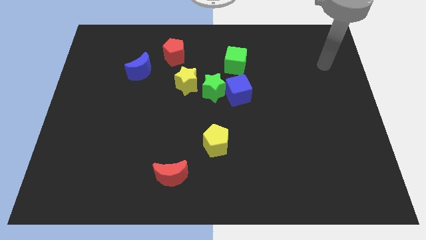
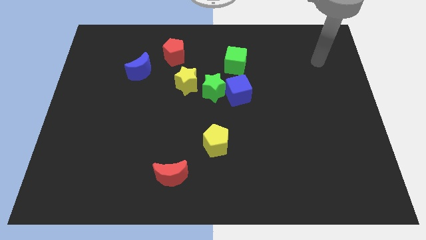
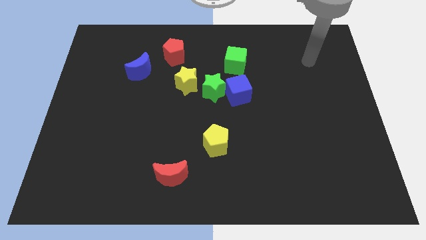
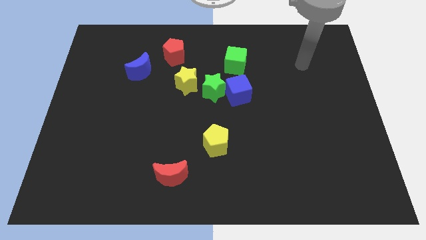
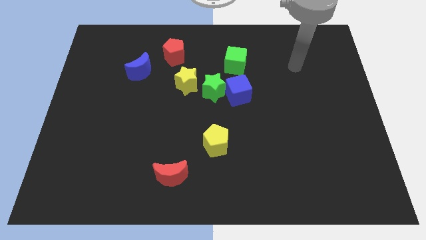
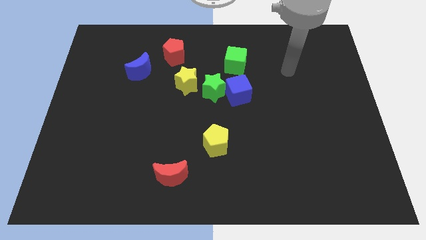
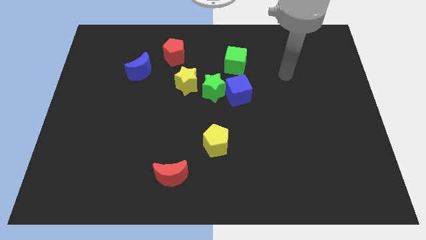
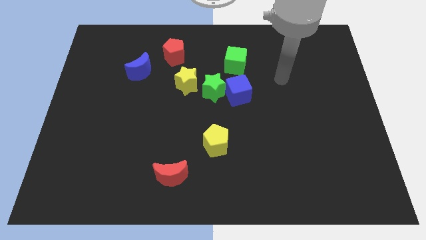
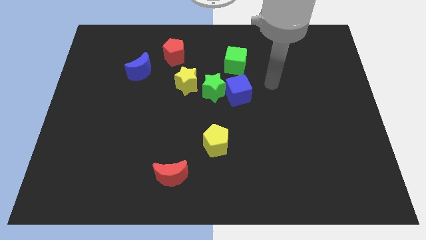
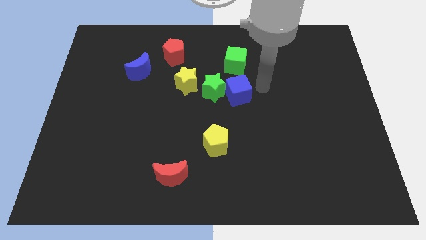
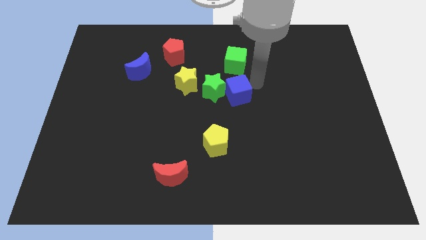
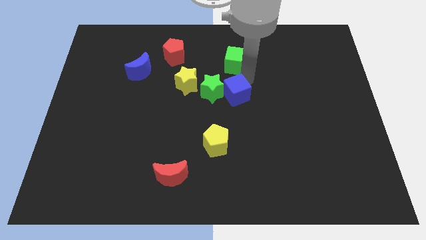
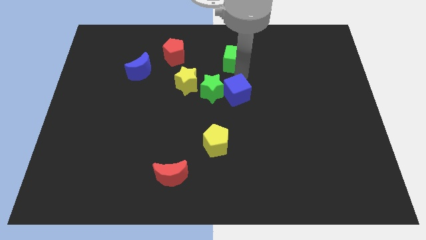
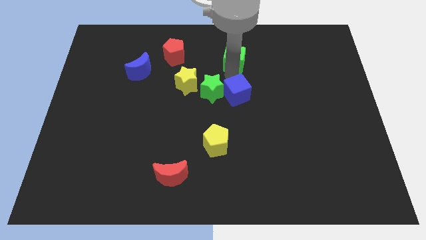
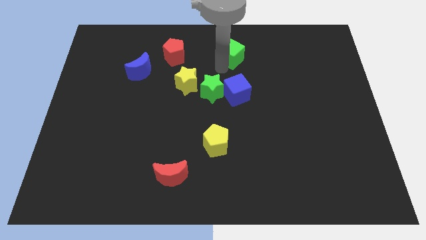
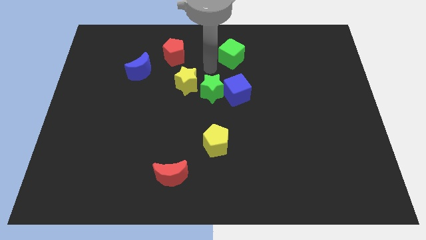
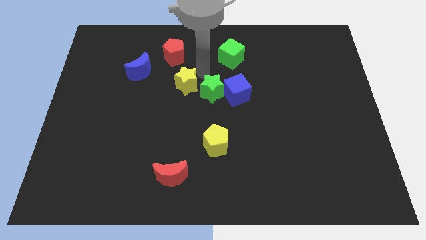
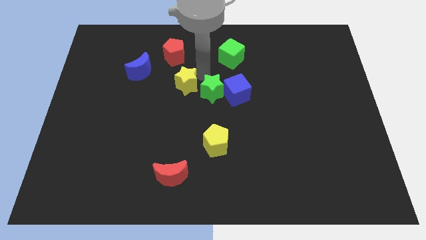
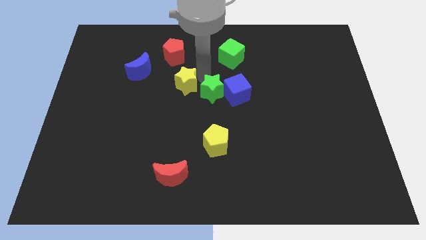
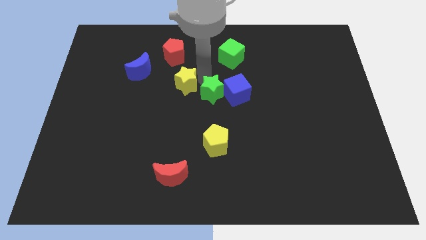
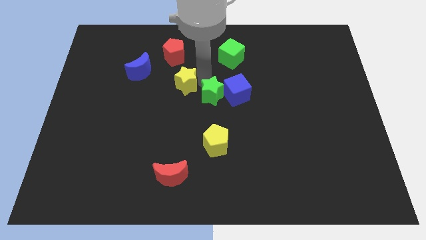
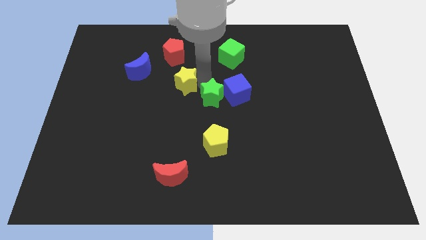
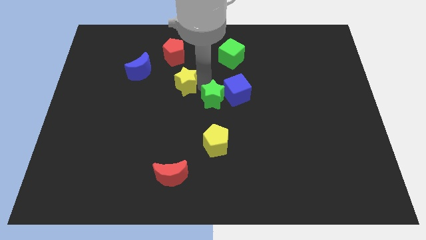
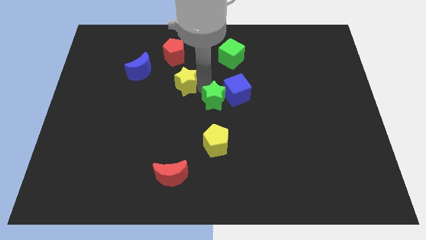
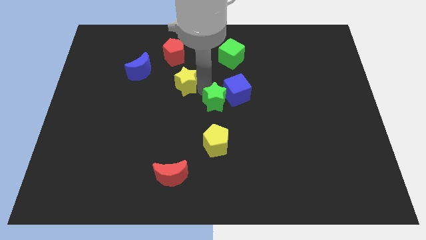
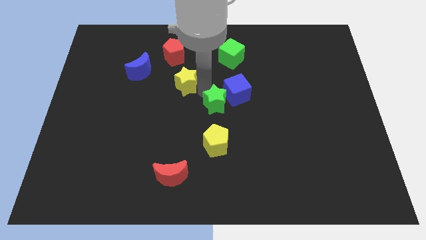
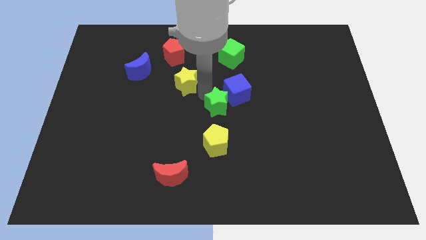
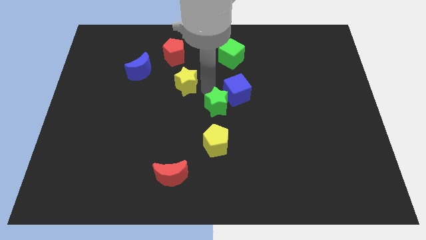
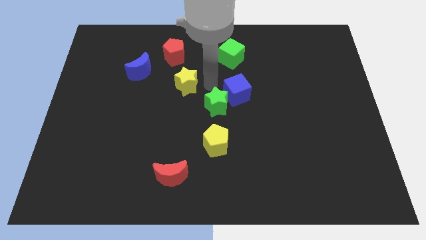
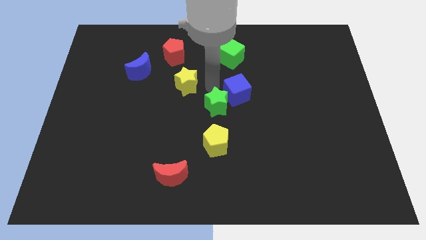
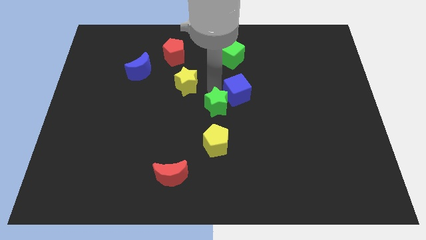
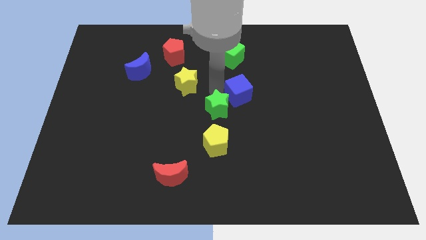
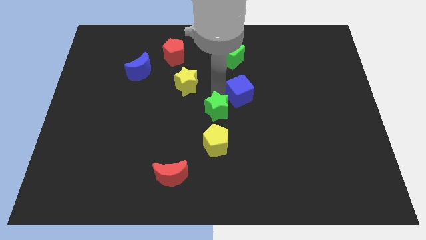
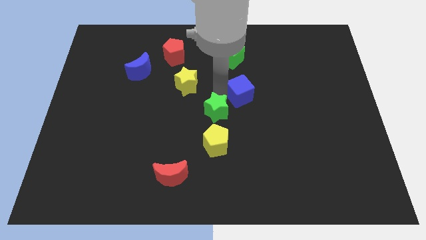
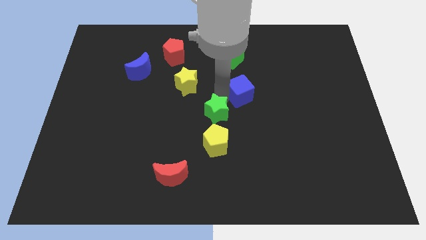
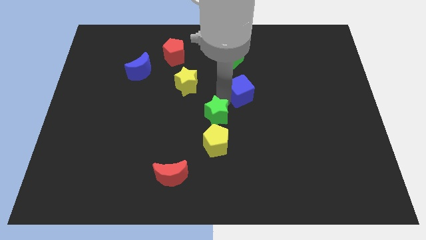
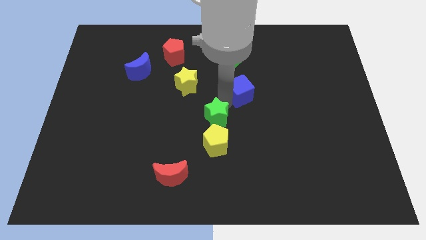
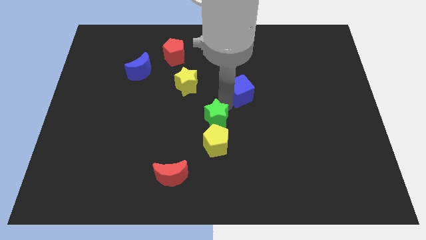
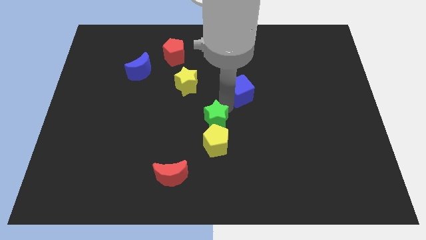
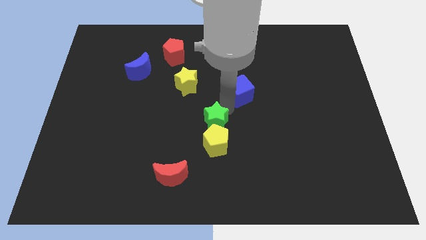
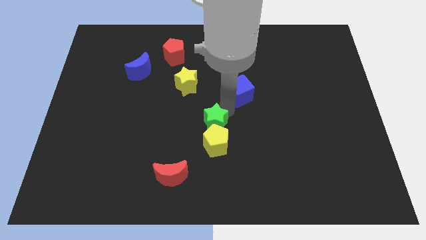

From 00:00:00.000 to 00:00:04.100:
move the green star away from the blue cube and yellow star

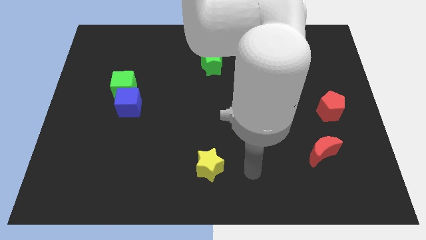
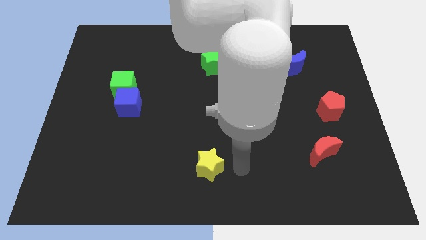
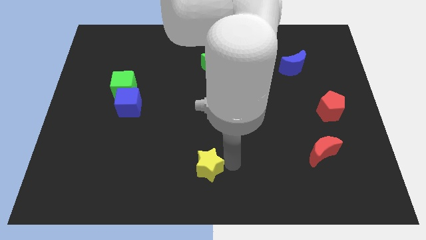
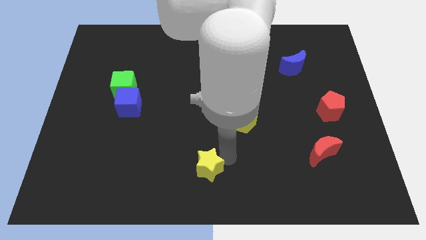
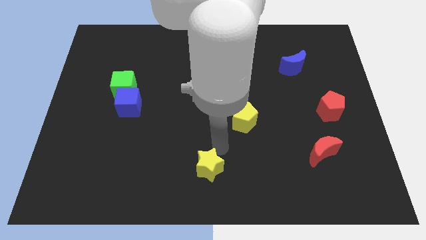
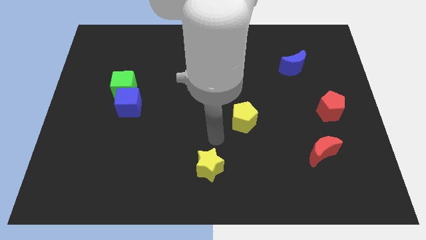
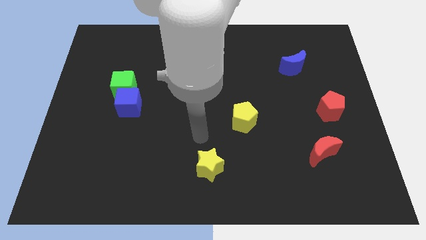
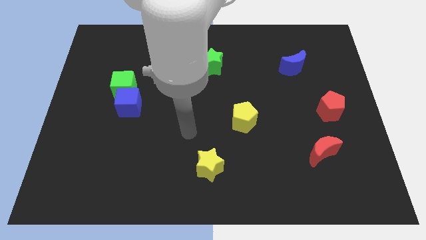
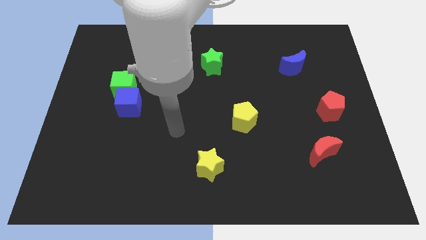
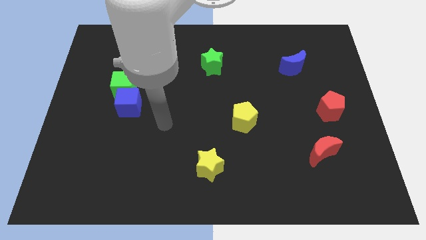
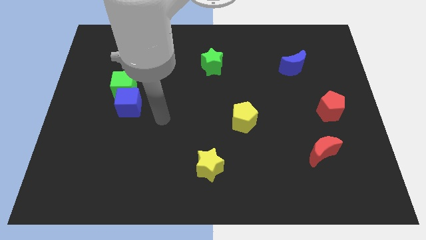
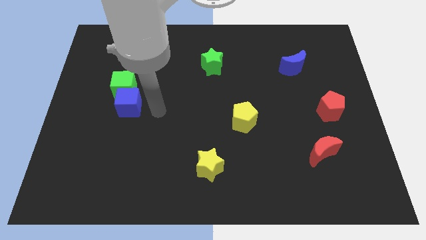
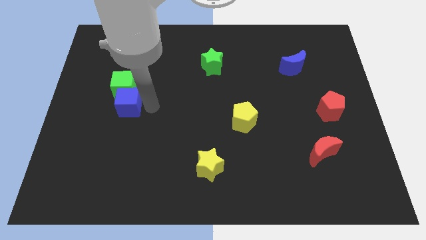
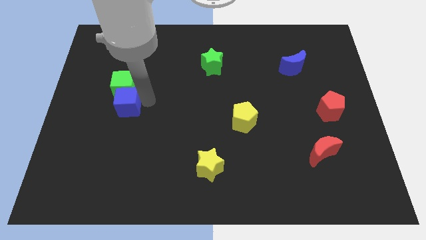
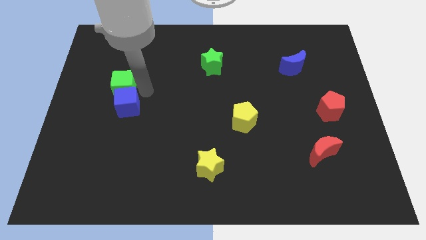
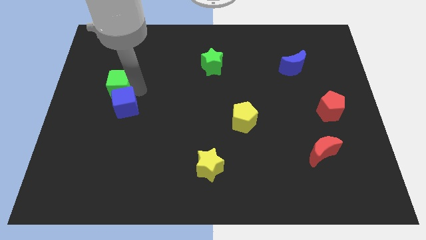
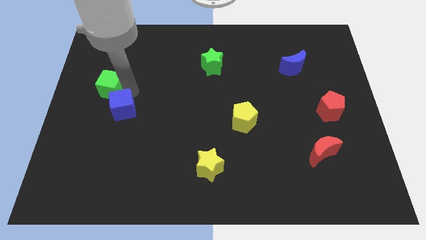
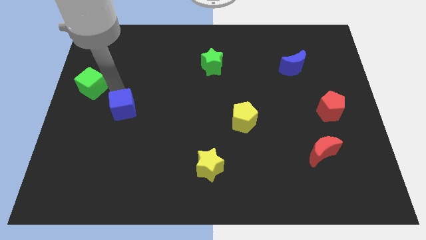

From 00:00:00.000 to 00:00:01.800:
separate the blue cube from the green cube

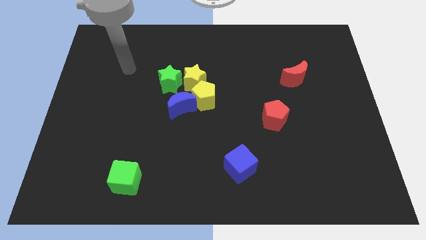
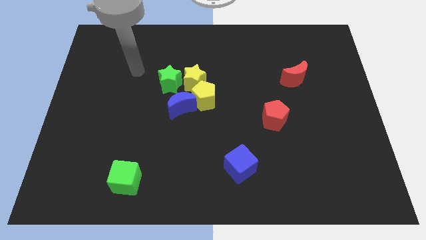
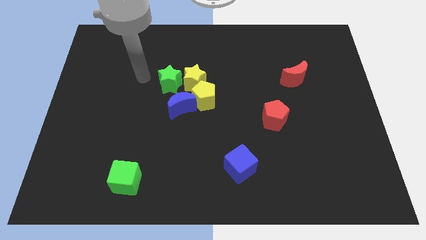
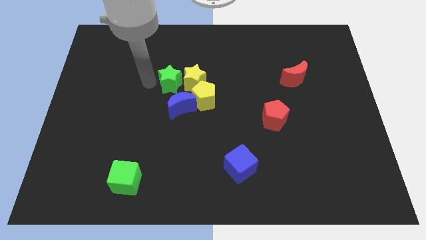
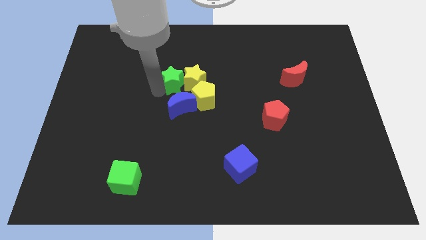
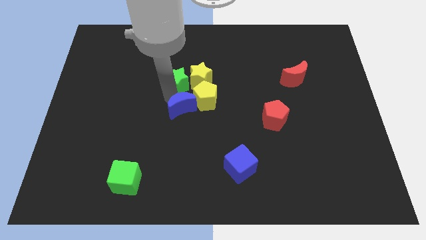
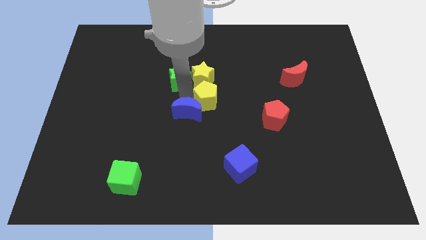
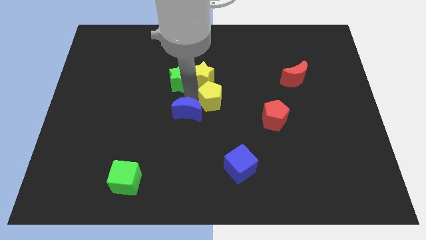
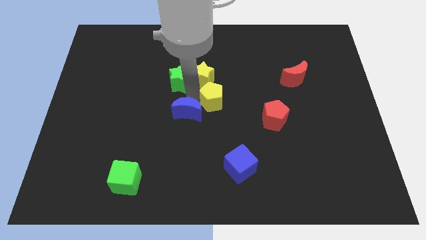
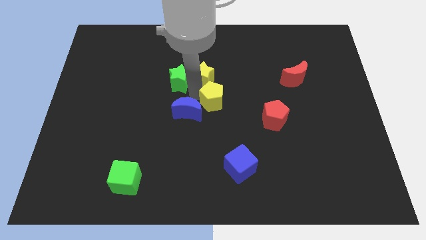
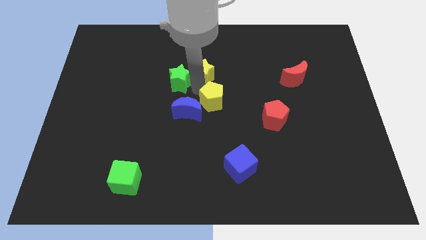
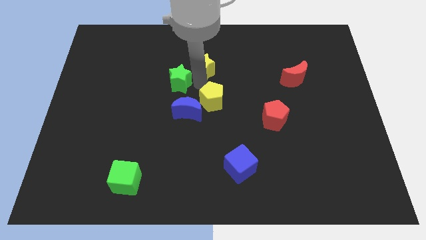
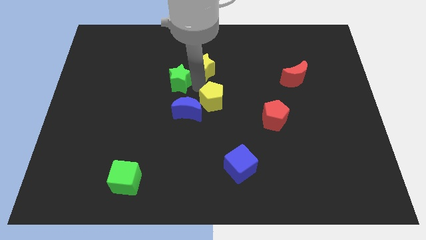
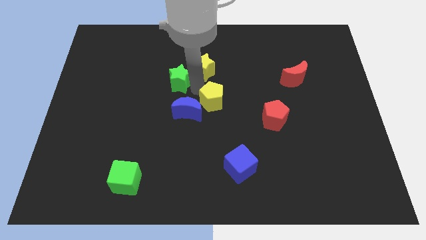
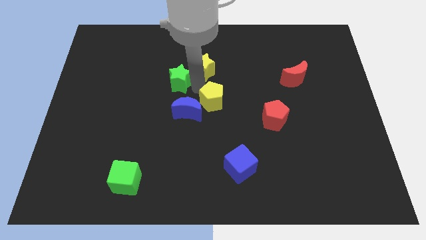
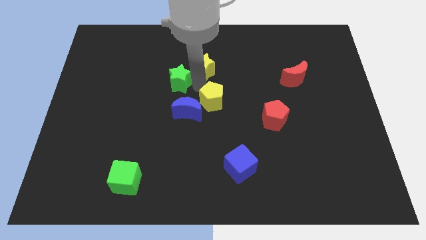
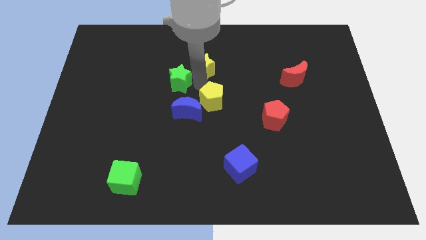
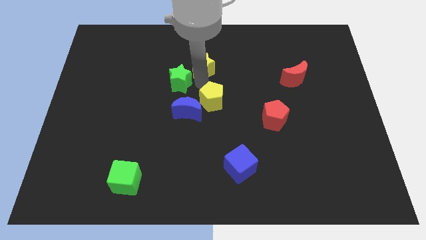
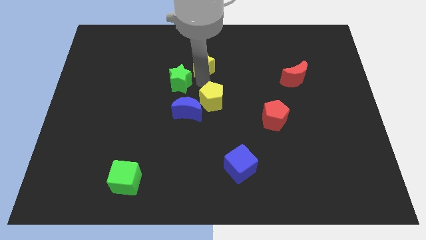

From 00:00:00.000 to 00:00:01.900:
move the yellow star away from the clump

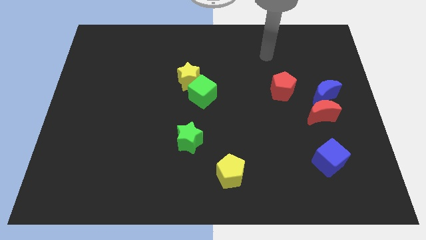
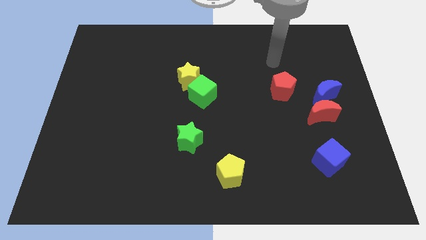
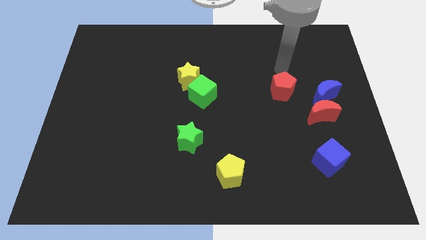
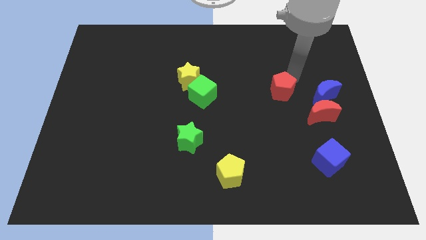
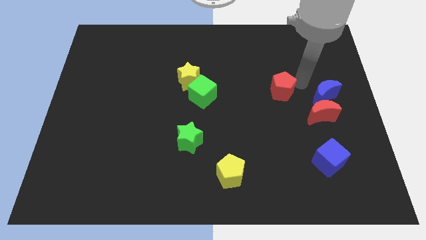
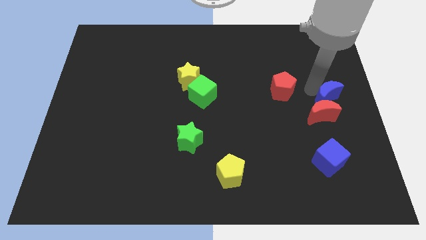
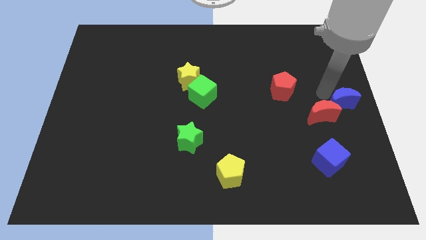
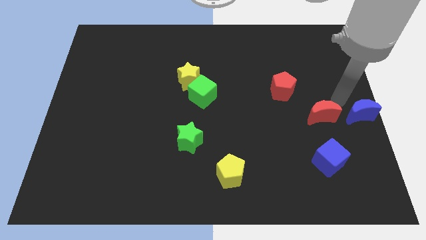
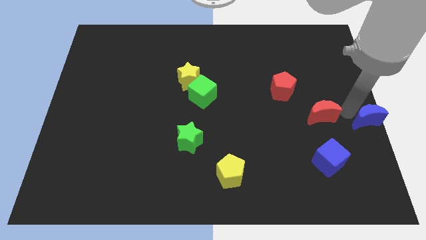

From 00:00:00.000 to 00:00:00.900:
move the red moon away from the blue moon

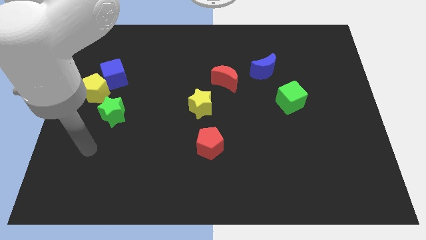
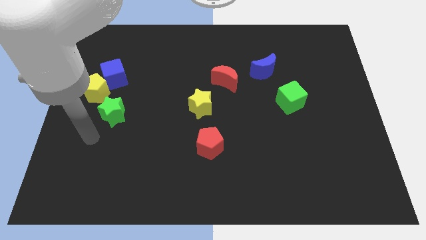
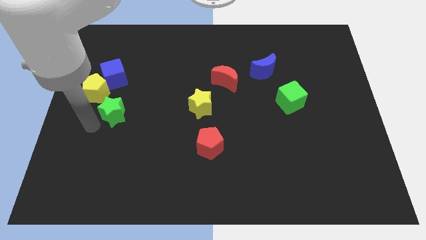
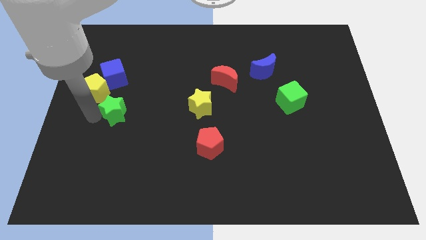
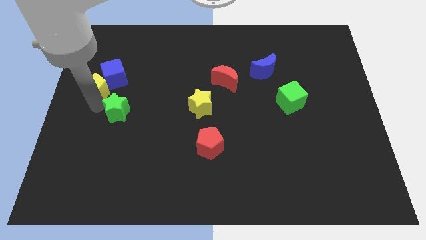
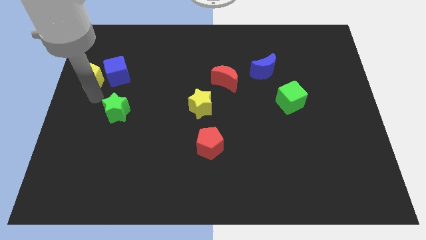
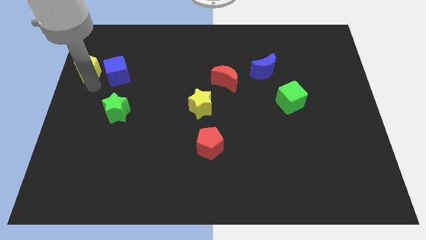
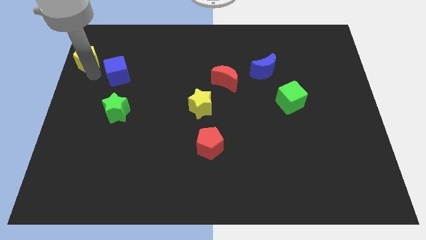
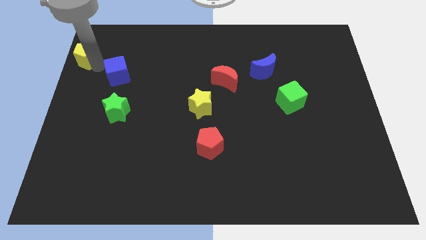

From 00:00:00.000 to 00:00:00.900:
move the blue cube away from the yellow pentagon
